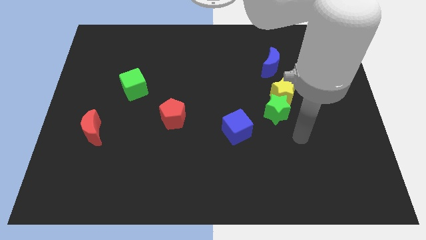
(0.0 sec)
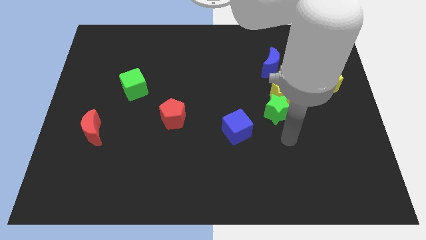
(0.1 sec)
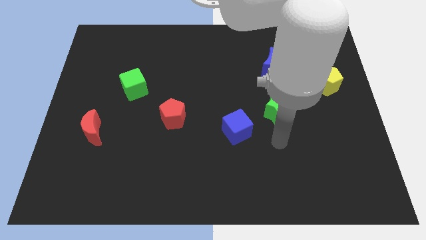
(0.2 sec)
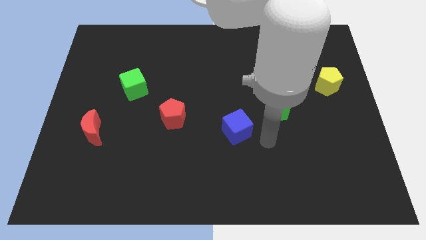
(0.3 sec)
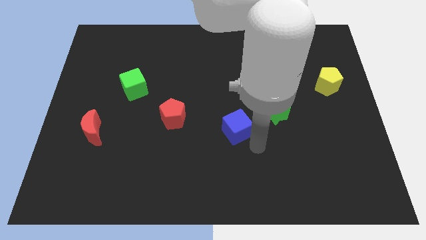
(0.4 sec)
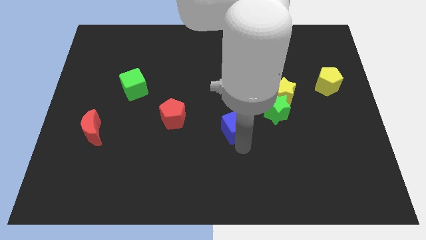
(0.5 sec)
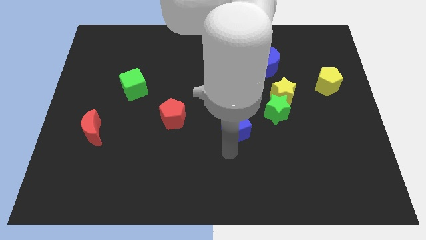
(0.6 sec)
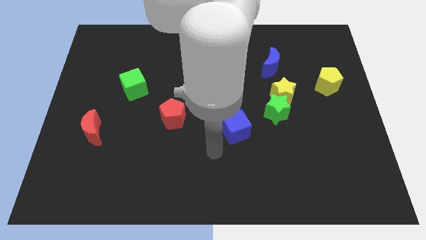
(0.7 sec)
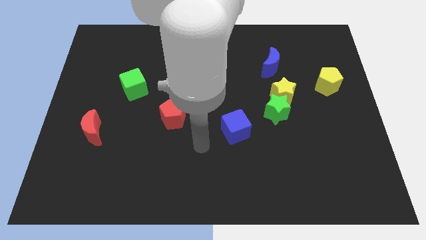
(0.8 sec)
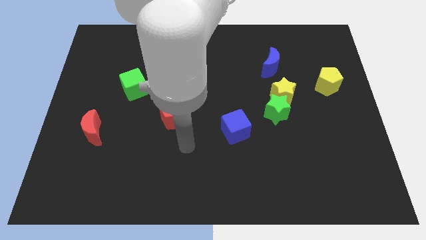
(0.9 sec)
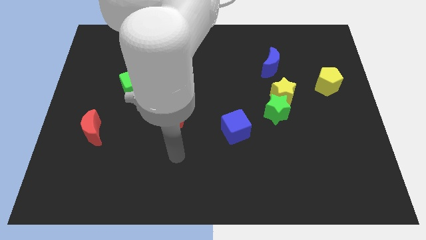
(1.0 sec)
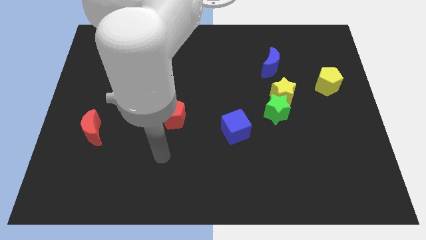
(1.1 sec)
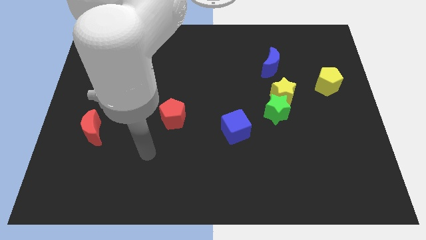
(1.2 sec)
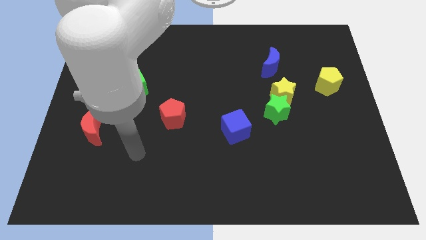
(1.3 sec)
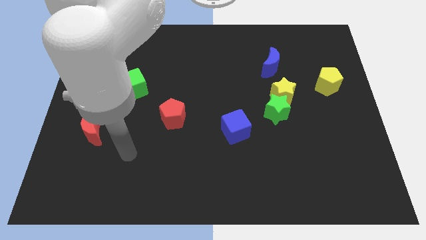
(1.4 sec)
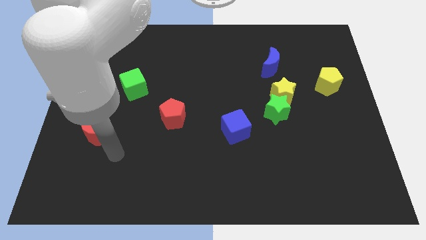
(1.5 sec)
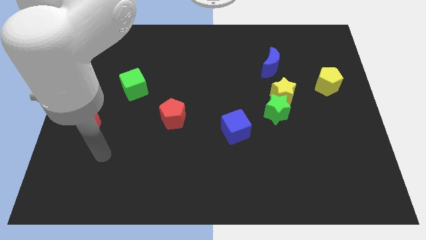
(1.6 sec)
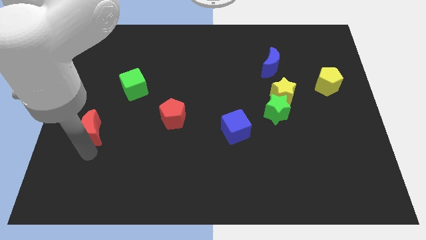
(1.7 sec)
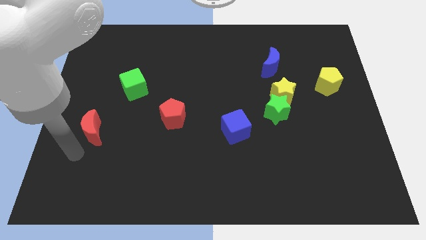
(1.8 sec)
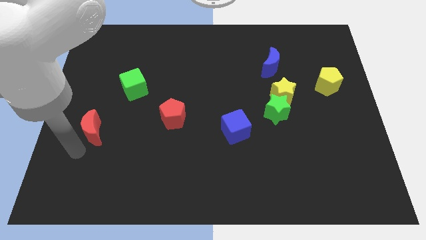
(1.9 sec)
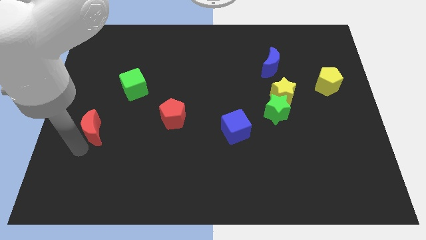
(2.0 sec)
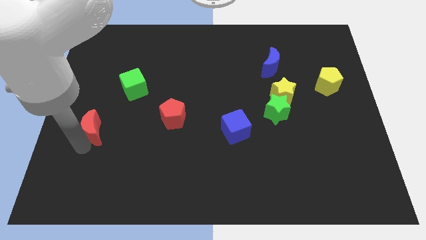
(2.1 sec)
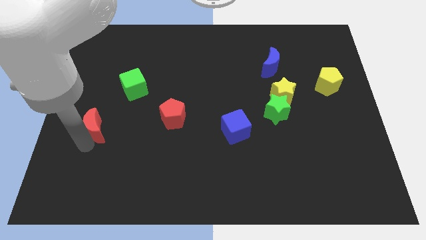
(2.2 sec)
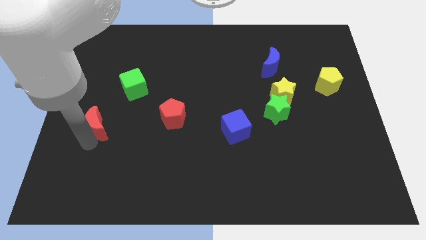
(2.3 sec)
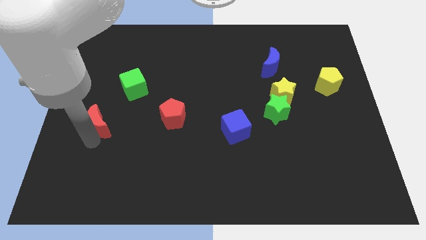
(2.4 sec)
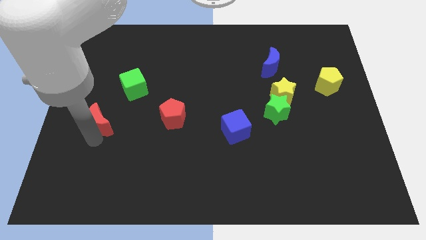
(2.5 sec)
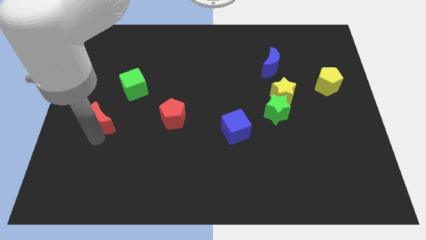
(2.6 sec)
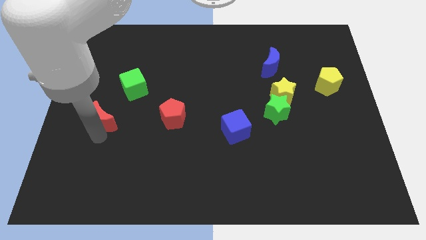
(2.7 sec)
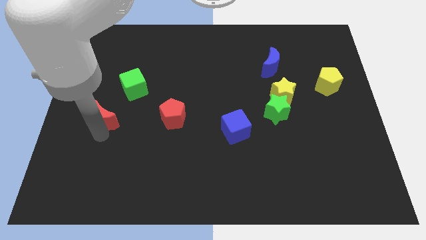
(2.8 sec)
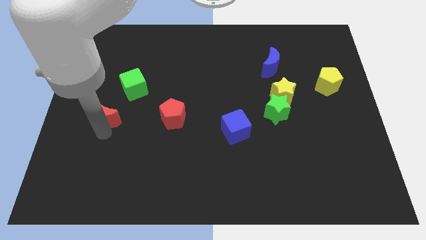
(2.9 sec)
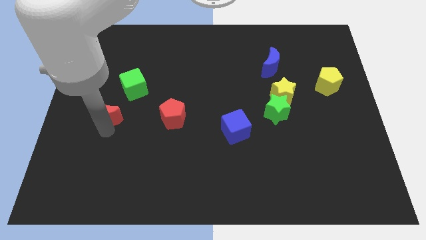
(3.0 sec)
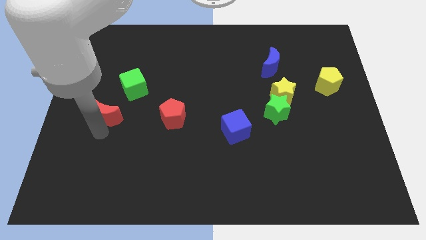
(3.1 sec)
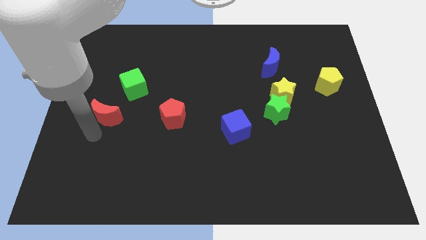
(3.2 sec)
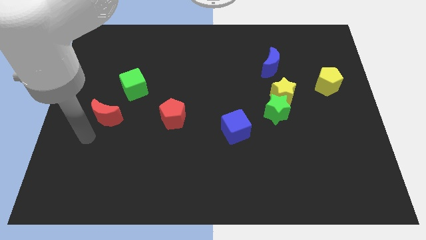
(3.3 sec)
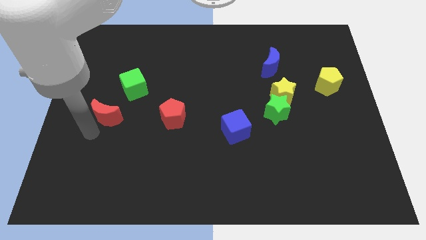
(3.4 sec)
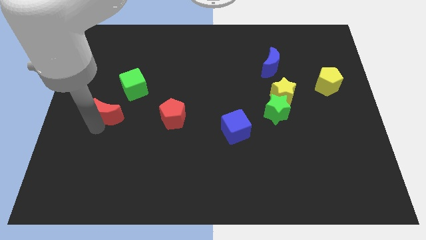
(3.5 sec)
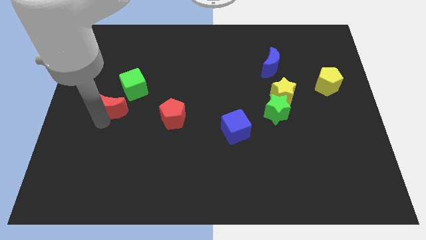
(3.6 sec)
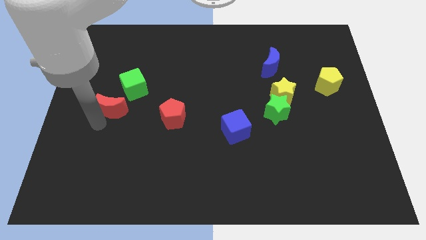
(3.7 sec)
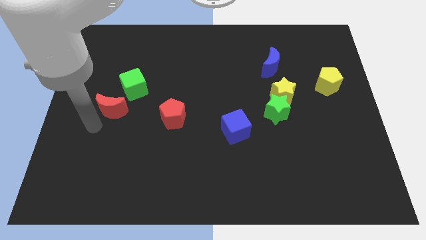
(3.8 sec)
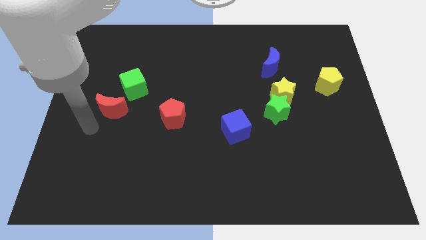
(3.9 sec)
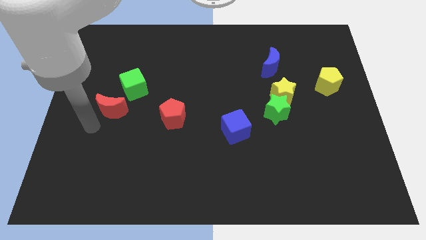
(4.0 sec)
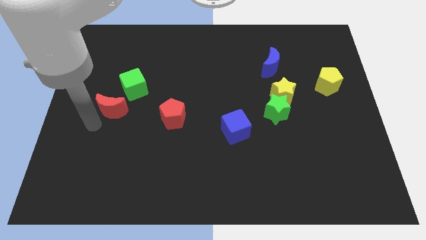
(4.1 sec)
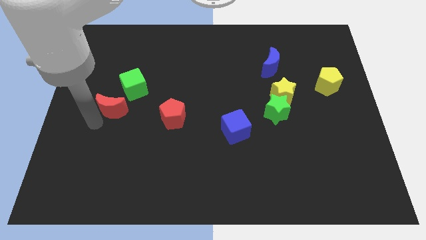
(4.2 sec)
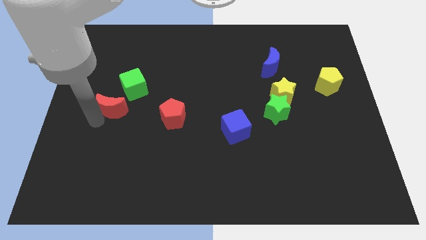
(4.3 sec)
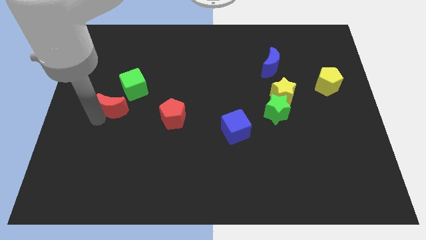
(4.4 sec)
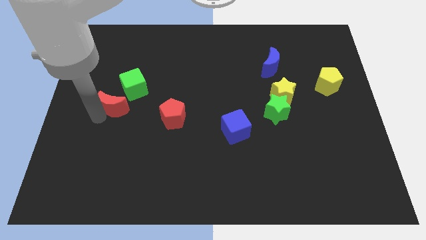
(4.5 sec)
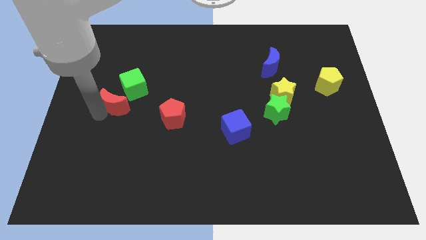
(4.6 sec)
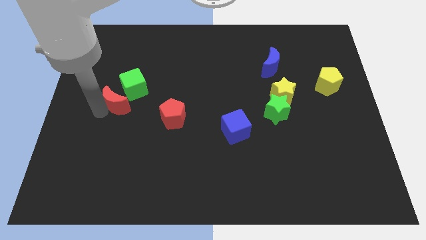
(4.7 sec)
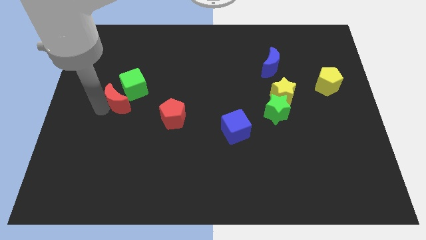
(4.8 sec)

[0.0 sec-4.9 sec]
move the red moon towards the green cube

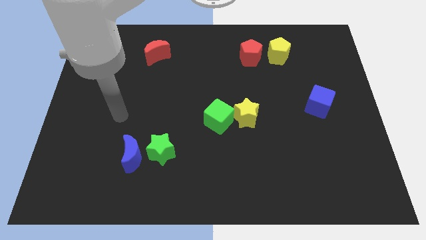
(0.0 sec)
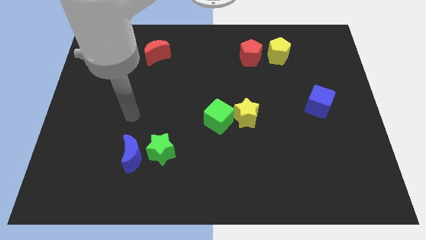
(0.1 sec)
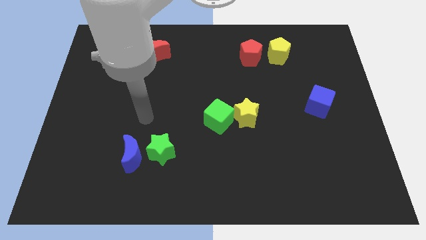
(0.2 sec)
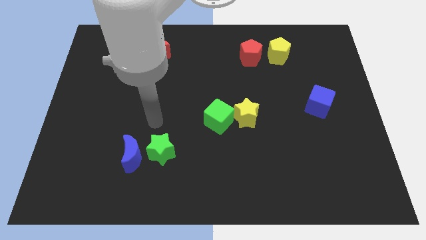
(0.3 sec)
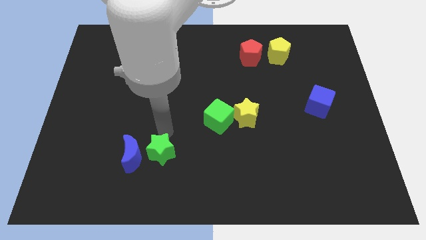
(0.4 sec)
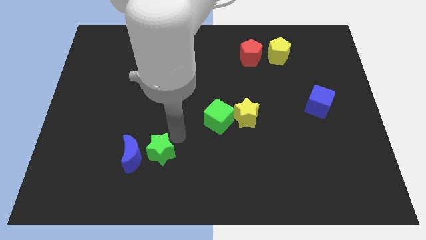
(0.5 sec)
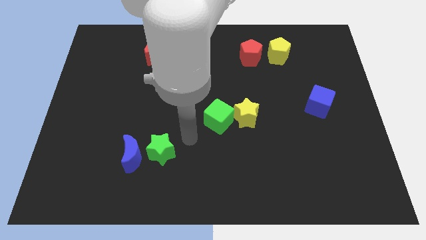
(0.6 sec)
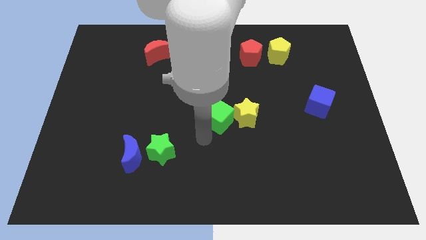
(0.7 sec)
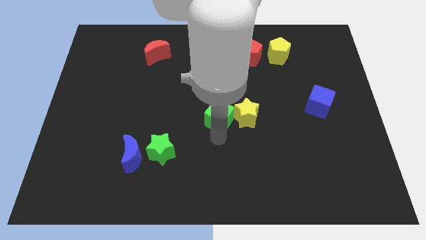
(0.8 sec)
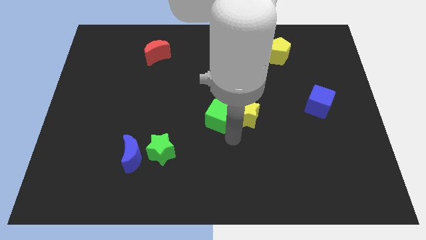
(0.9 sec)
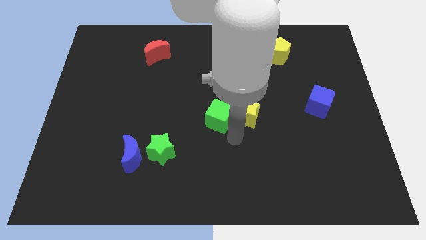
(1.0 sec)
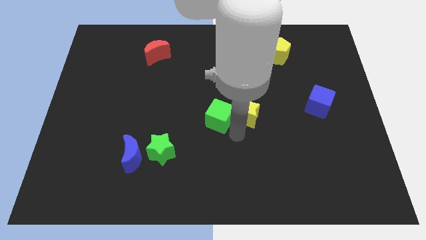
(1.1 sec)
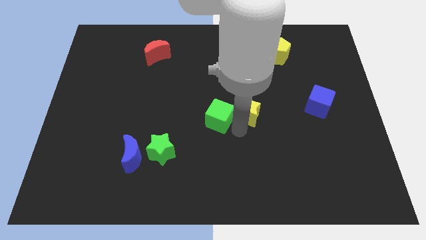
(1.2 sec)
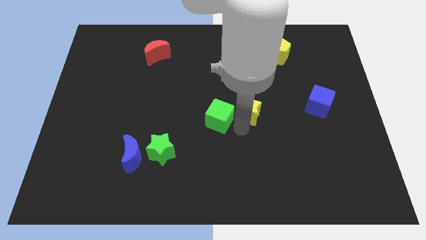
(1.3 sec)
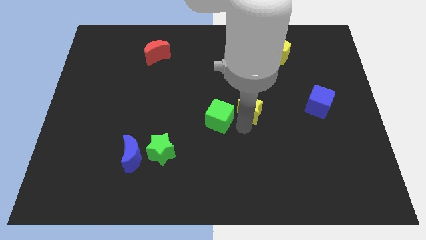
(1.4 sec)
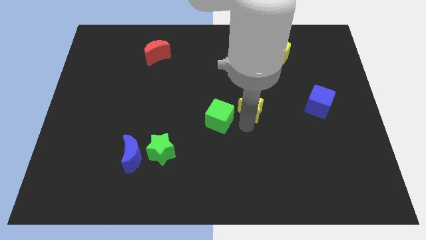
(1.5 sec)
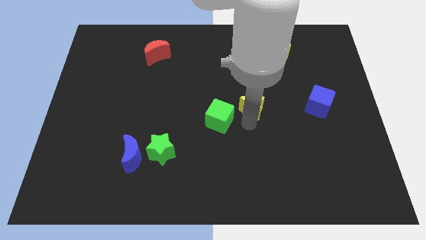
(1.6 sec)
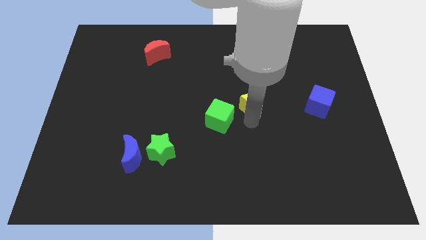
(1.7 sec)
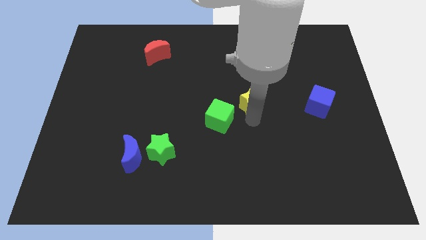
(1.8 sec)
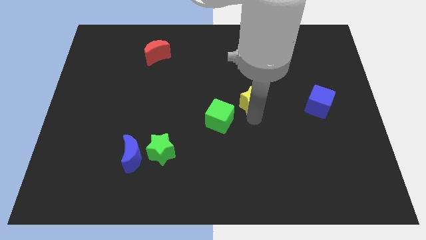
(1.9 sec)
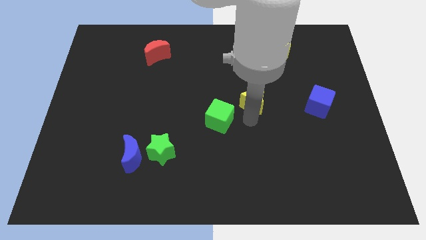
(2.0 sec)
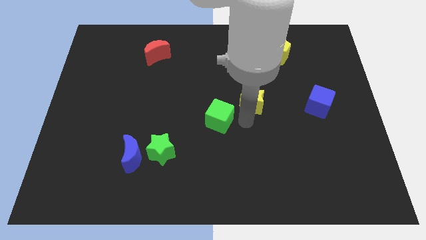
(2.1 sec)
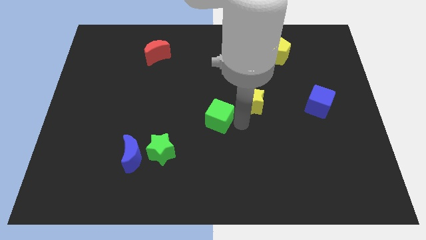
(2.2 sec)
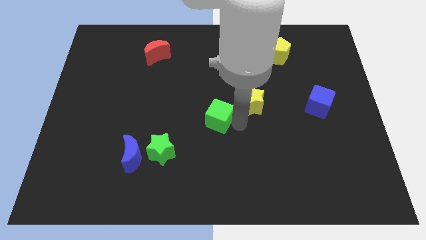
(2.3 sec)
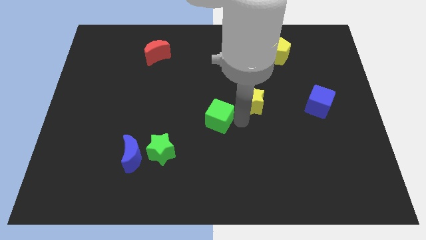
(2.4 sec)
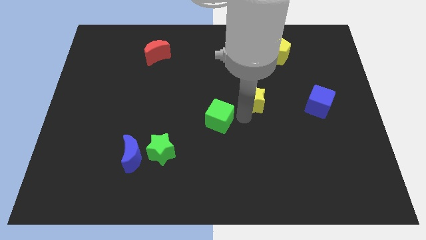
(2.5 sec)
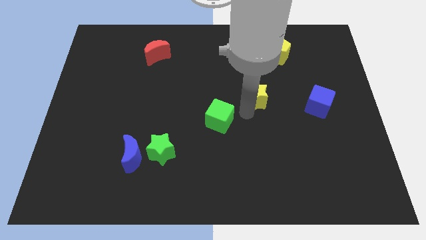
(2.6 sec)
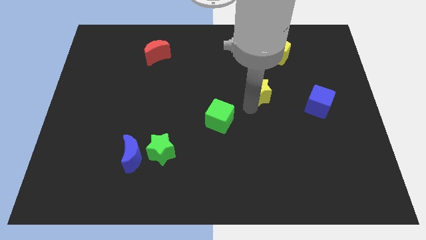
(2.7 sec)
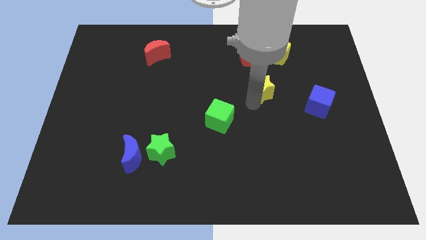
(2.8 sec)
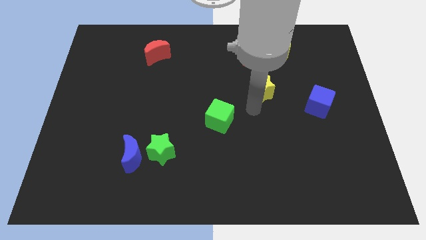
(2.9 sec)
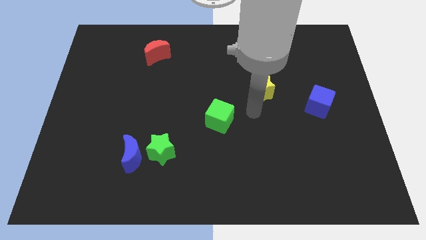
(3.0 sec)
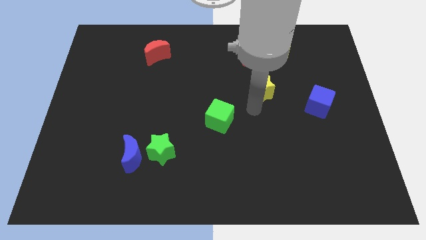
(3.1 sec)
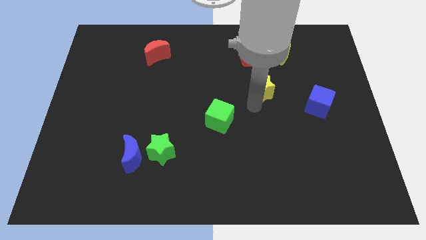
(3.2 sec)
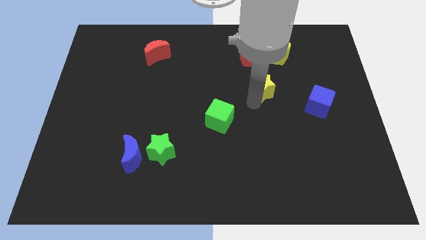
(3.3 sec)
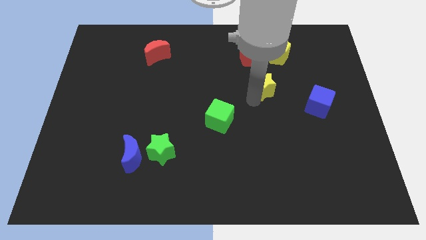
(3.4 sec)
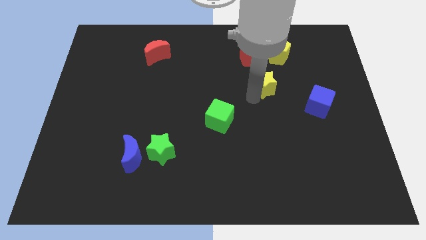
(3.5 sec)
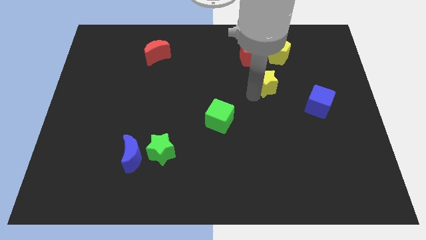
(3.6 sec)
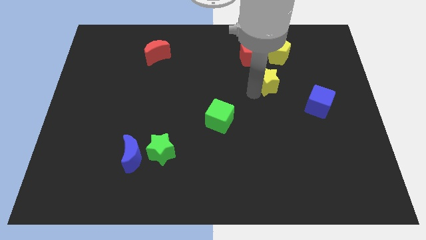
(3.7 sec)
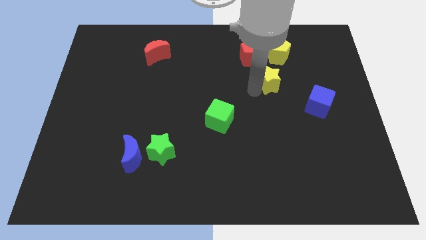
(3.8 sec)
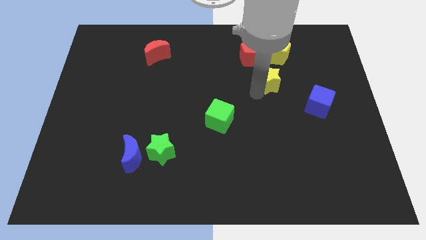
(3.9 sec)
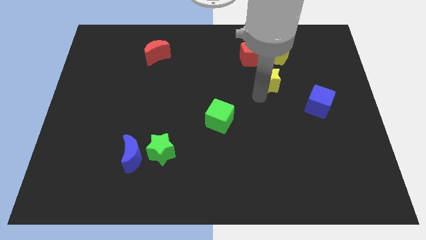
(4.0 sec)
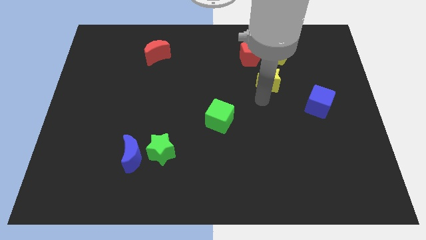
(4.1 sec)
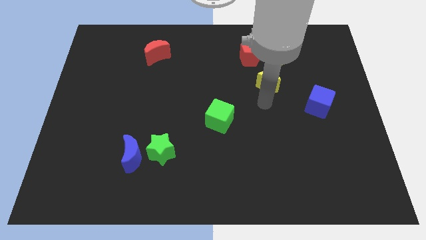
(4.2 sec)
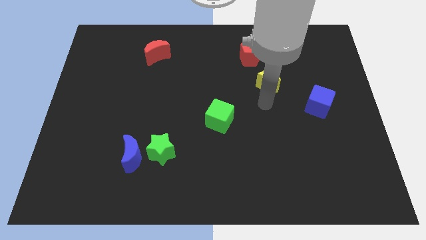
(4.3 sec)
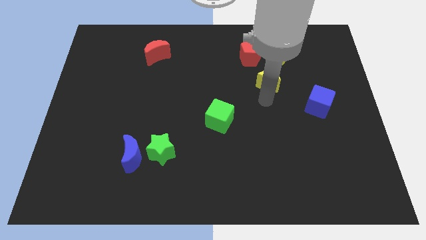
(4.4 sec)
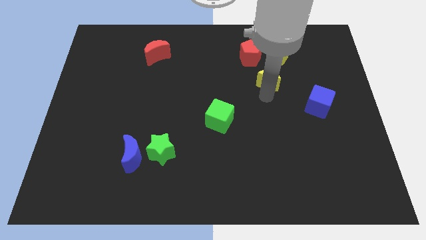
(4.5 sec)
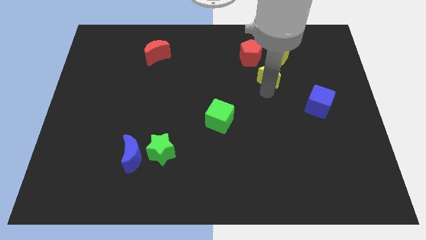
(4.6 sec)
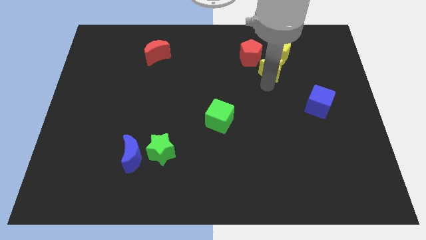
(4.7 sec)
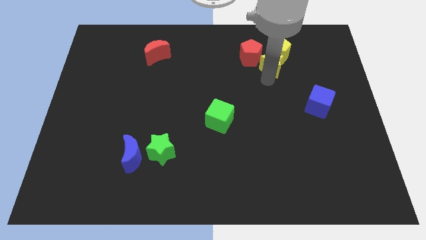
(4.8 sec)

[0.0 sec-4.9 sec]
slide the yellow star towards the yellow pentagon
